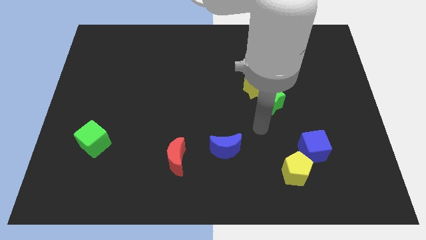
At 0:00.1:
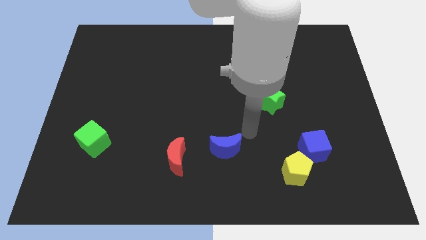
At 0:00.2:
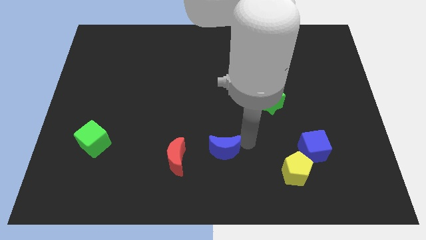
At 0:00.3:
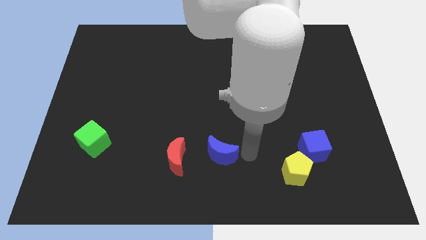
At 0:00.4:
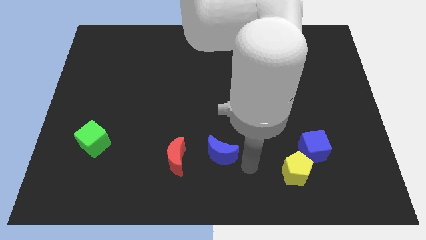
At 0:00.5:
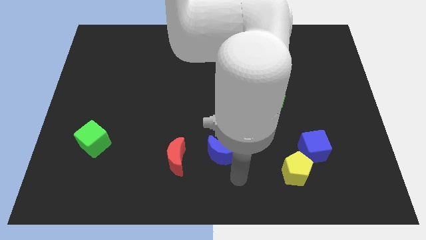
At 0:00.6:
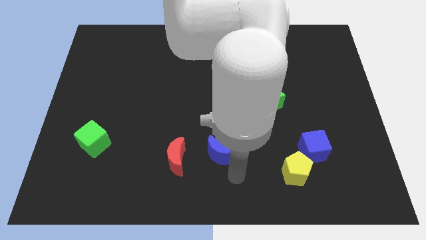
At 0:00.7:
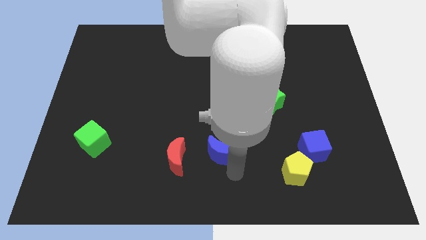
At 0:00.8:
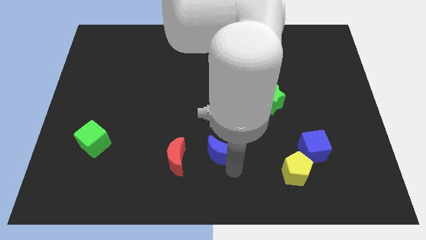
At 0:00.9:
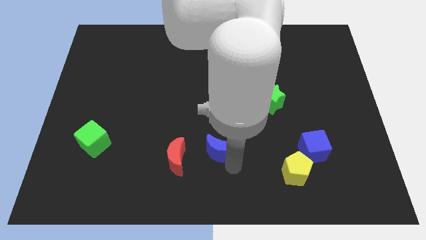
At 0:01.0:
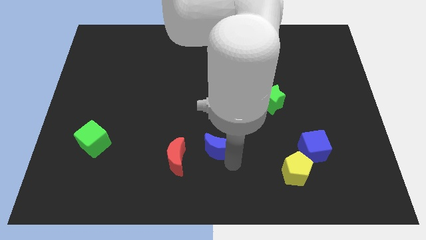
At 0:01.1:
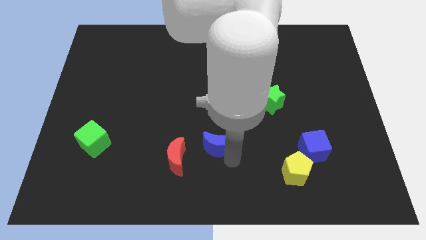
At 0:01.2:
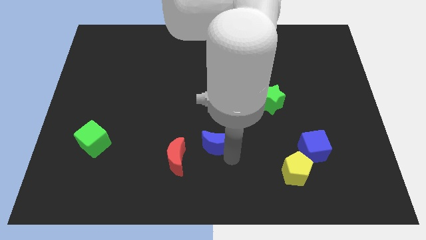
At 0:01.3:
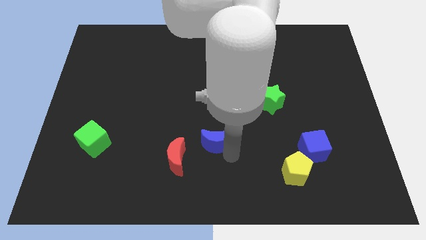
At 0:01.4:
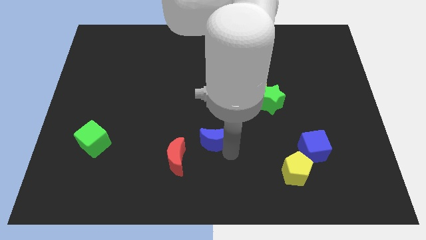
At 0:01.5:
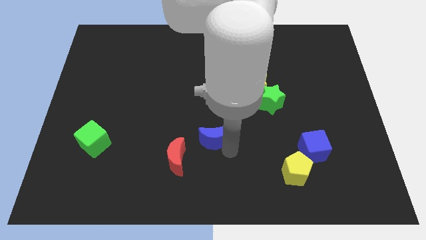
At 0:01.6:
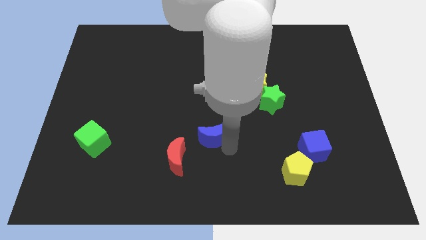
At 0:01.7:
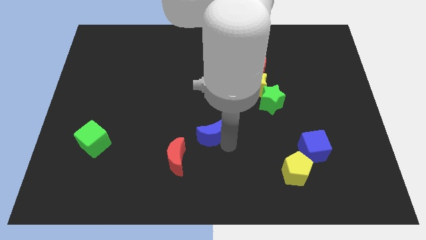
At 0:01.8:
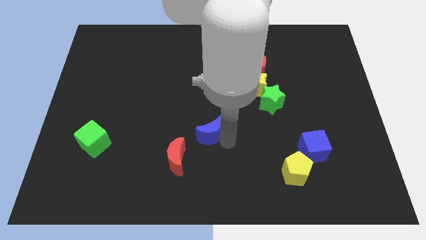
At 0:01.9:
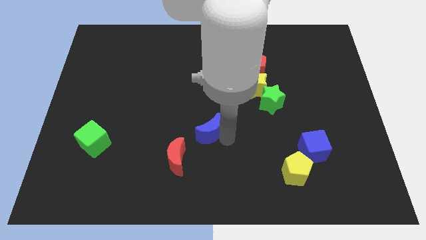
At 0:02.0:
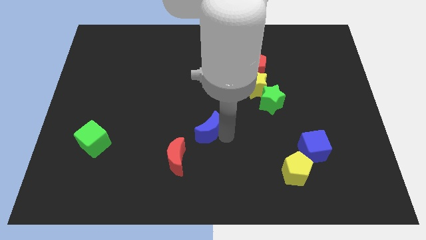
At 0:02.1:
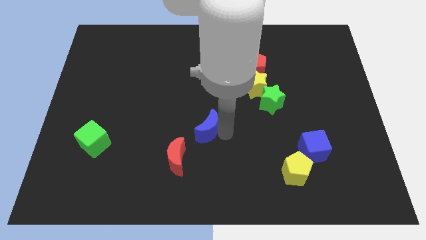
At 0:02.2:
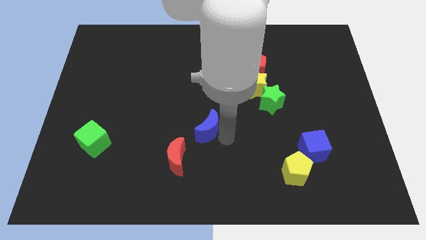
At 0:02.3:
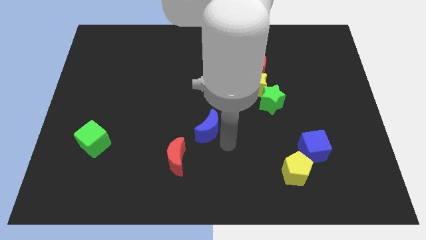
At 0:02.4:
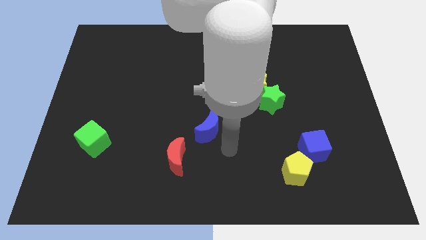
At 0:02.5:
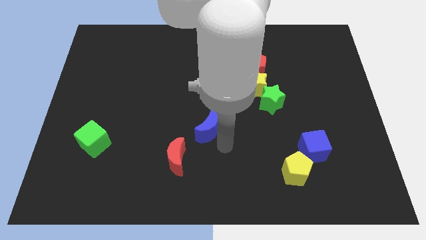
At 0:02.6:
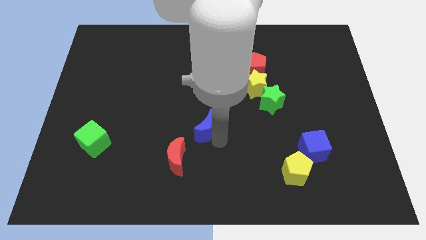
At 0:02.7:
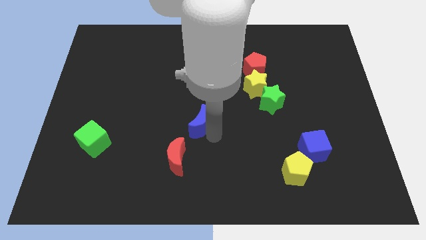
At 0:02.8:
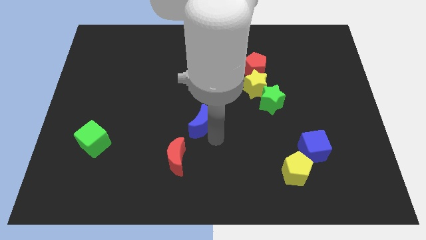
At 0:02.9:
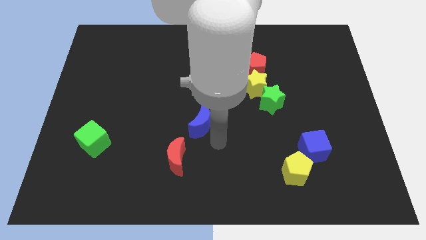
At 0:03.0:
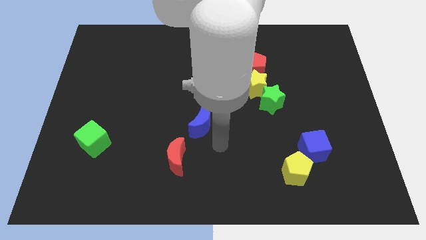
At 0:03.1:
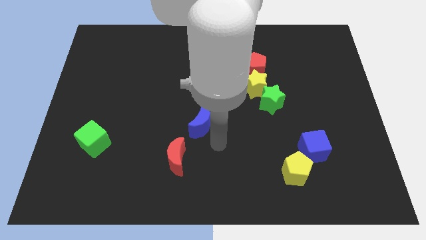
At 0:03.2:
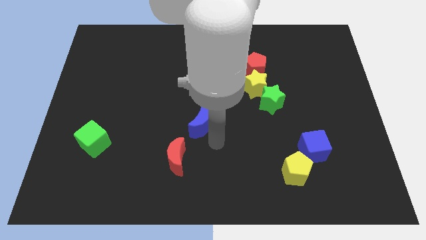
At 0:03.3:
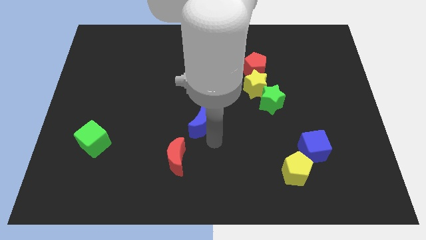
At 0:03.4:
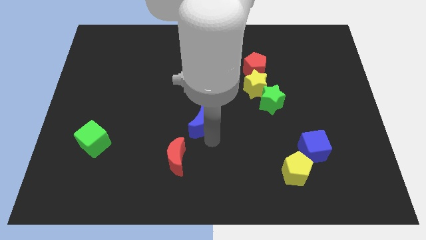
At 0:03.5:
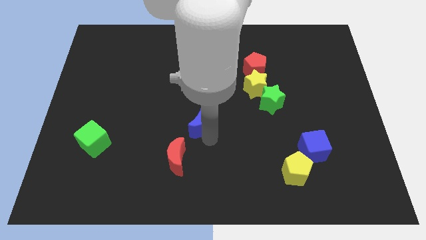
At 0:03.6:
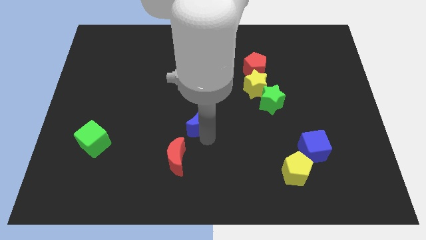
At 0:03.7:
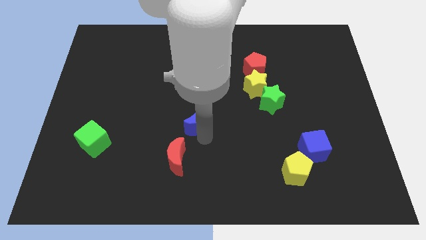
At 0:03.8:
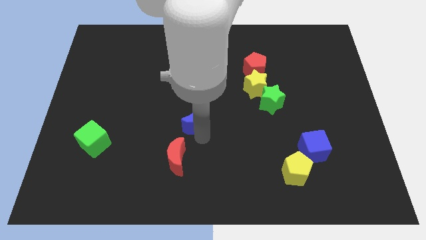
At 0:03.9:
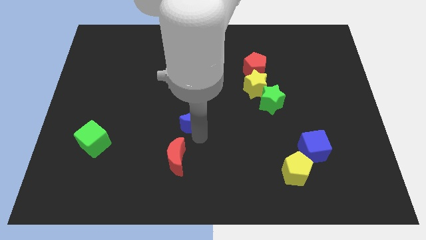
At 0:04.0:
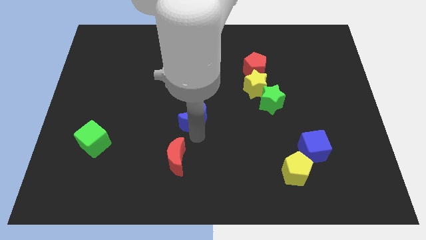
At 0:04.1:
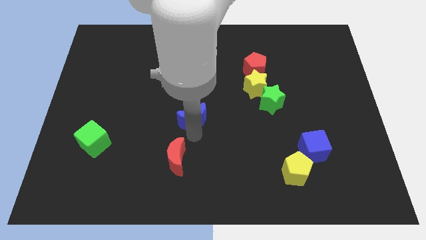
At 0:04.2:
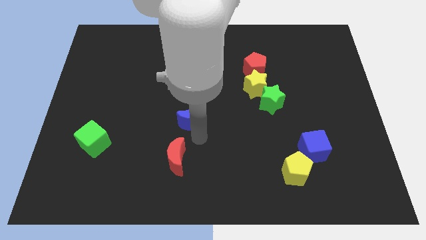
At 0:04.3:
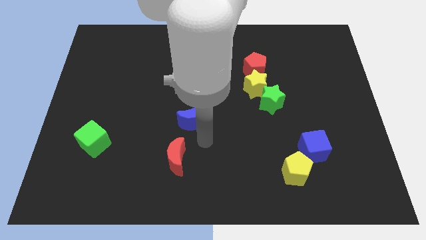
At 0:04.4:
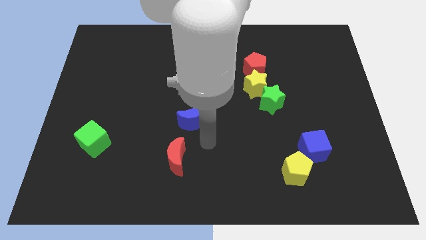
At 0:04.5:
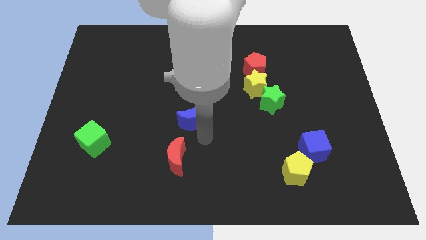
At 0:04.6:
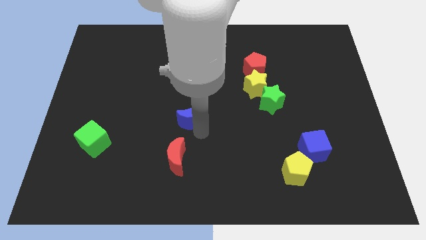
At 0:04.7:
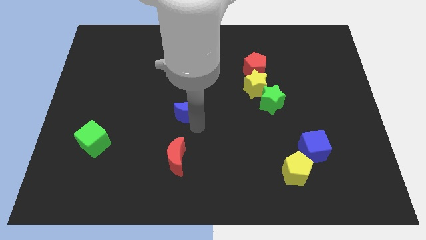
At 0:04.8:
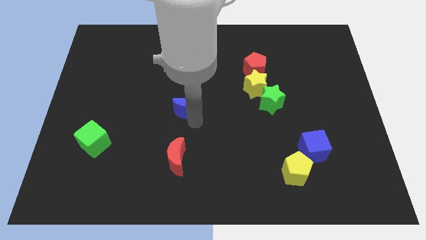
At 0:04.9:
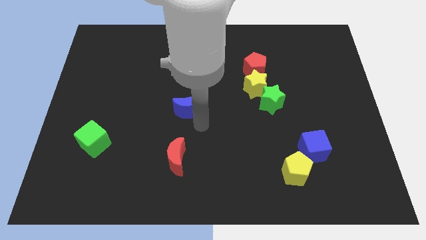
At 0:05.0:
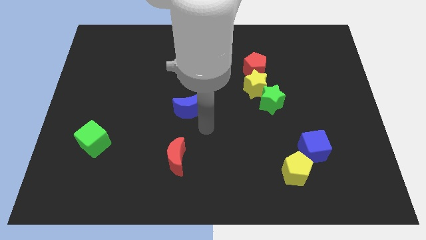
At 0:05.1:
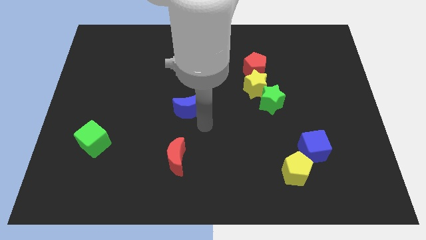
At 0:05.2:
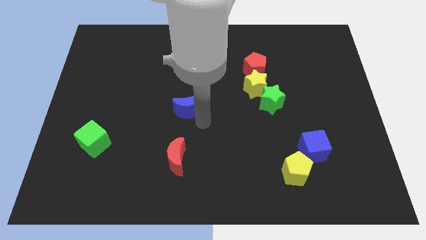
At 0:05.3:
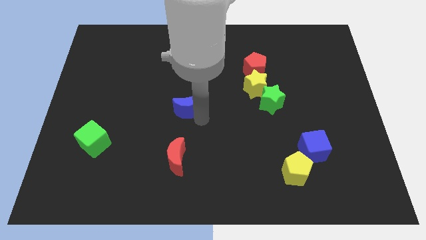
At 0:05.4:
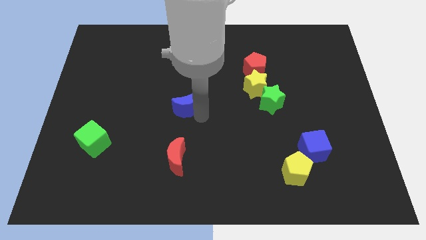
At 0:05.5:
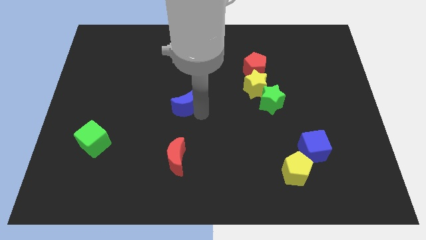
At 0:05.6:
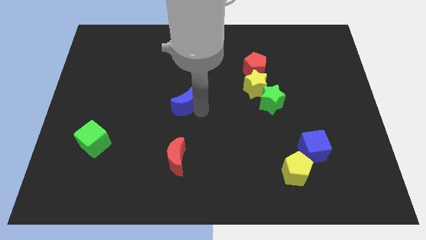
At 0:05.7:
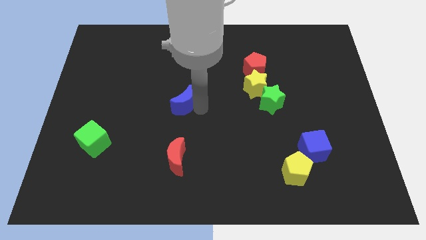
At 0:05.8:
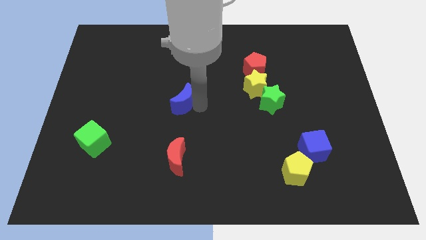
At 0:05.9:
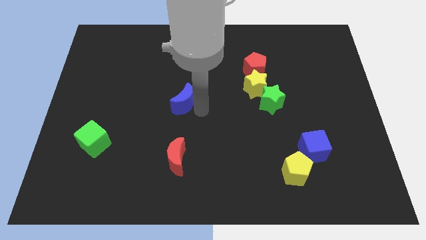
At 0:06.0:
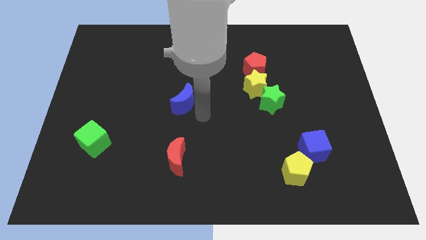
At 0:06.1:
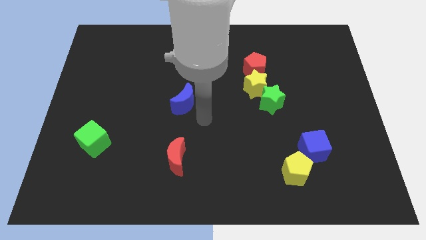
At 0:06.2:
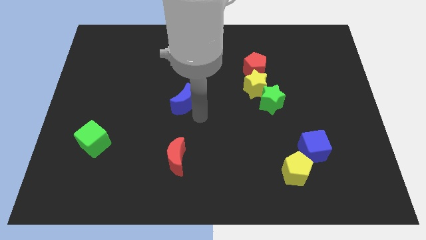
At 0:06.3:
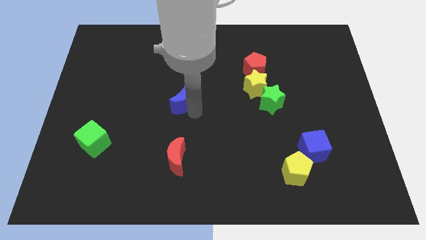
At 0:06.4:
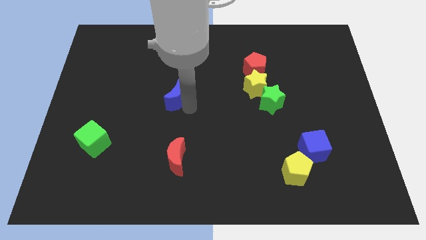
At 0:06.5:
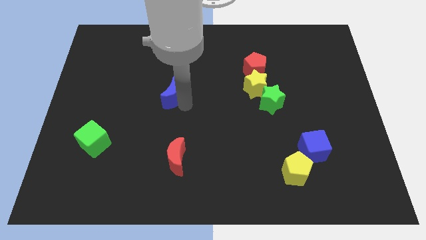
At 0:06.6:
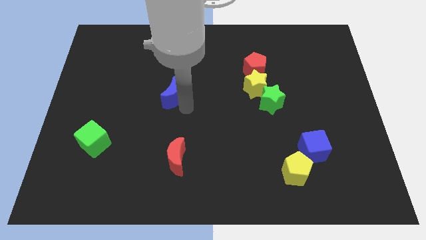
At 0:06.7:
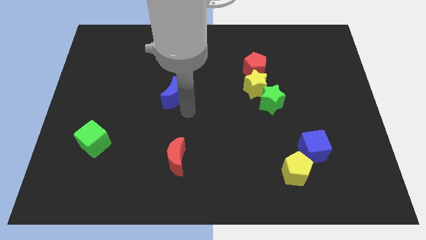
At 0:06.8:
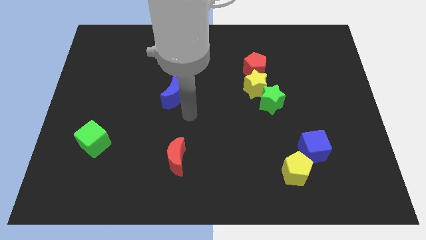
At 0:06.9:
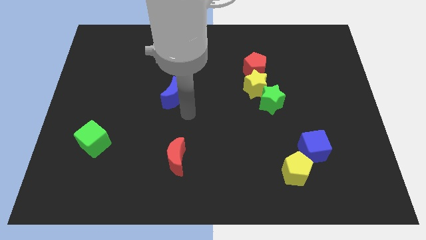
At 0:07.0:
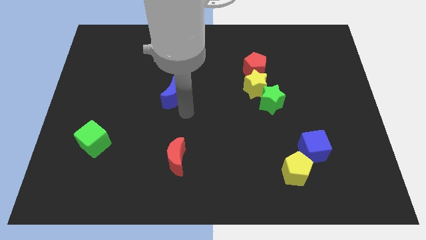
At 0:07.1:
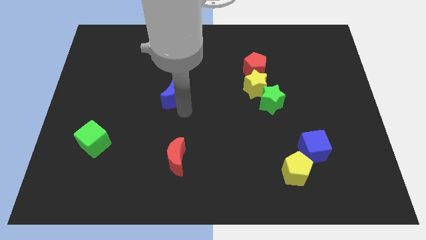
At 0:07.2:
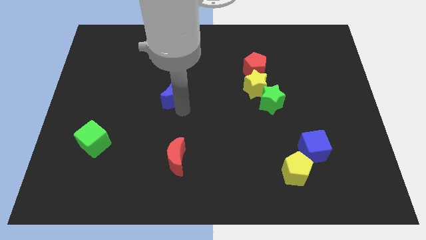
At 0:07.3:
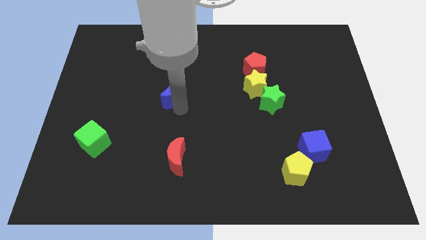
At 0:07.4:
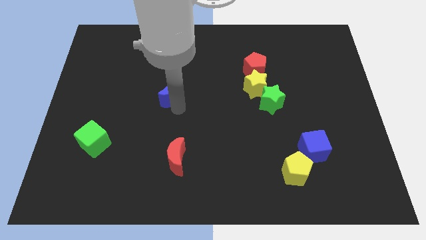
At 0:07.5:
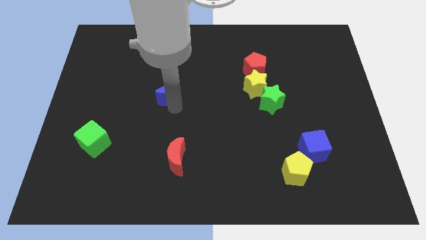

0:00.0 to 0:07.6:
move the blue moon diagonally upwards and to the left

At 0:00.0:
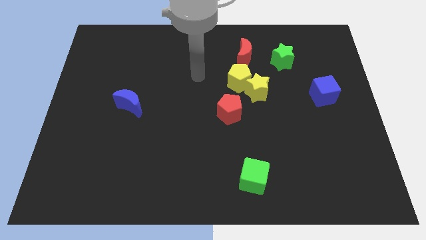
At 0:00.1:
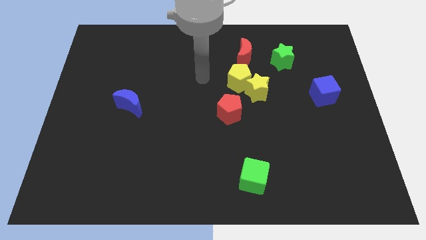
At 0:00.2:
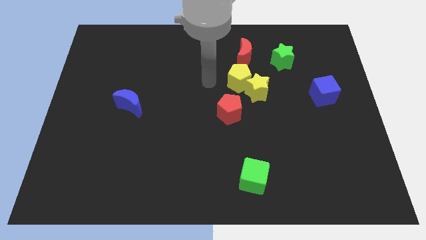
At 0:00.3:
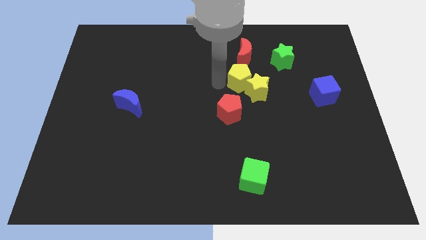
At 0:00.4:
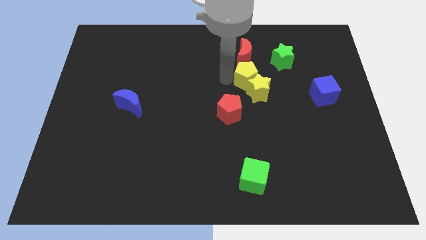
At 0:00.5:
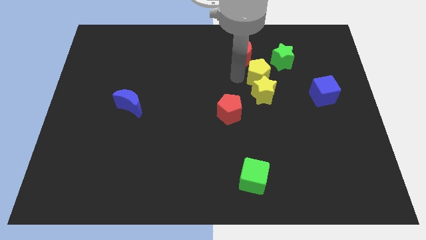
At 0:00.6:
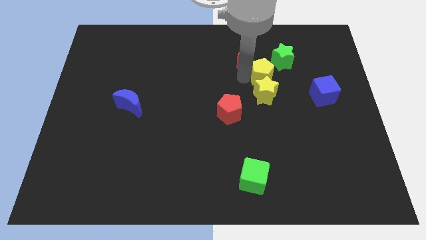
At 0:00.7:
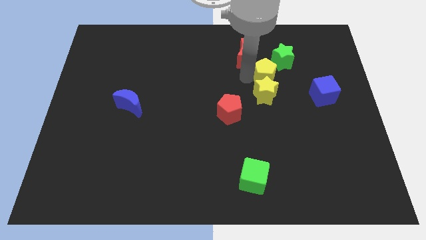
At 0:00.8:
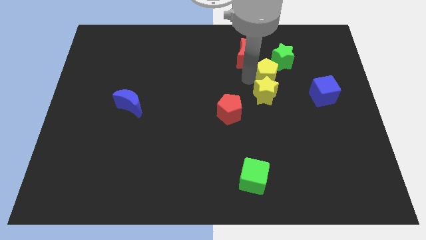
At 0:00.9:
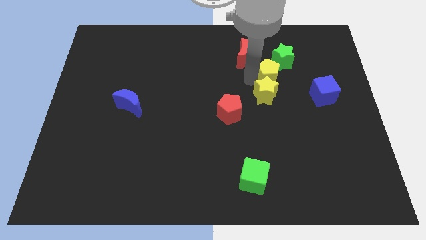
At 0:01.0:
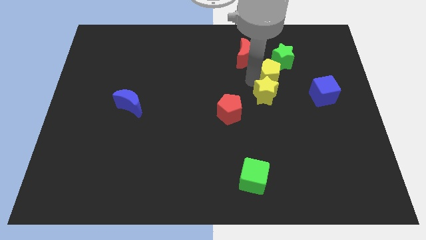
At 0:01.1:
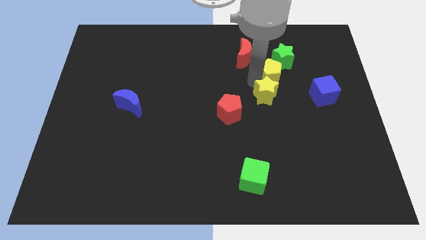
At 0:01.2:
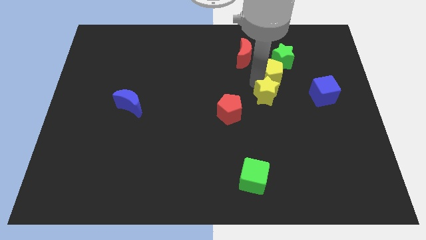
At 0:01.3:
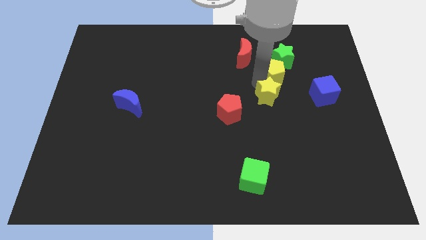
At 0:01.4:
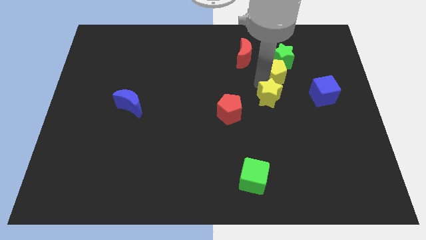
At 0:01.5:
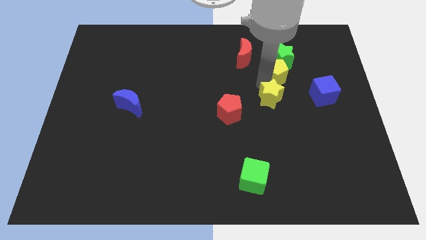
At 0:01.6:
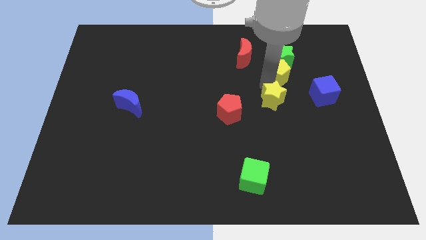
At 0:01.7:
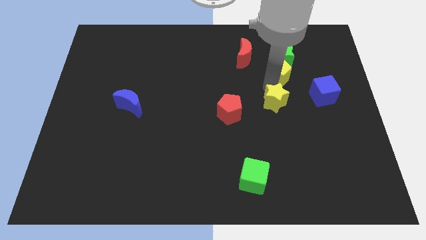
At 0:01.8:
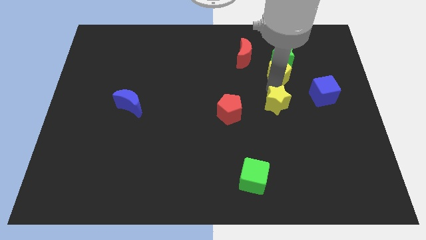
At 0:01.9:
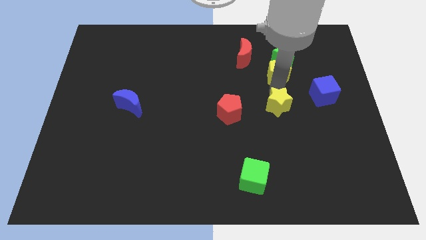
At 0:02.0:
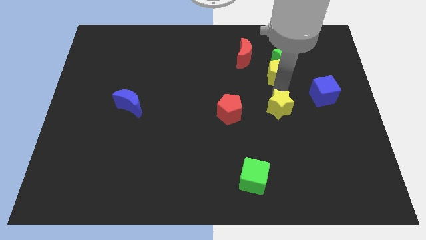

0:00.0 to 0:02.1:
slide the yellow star down and to the right a bit
